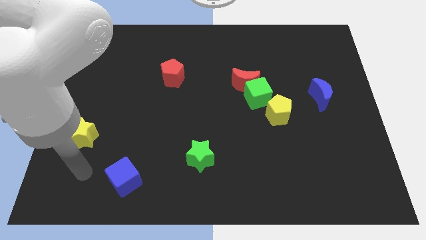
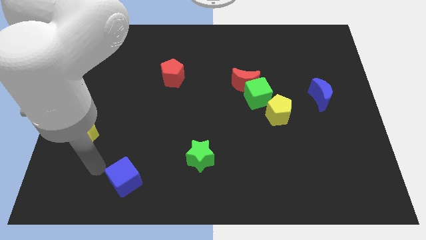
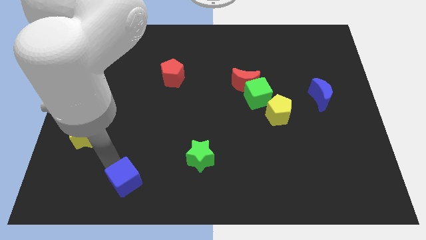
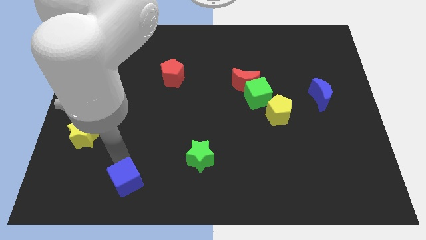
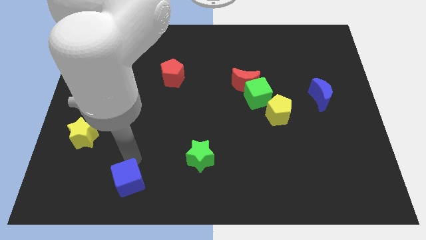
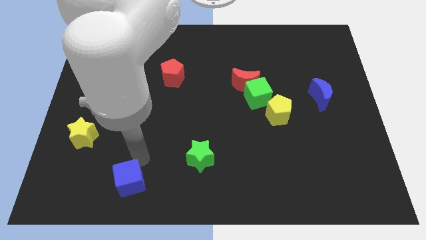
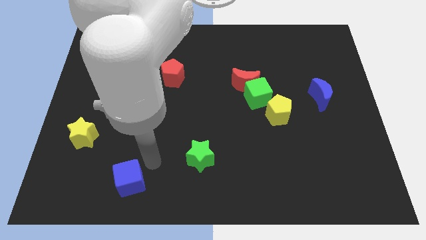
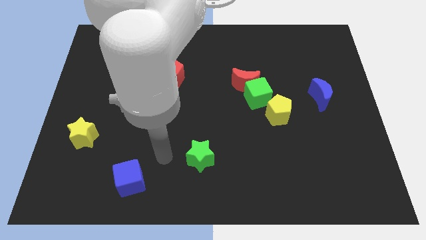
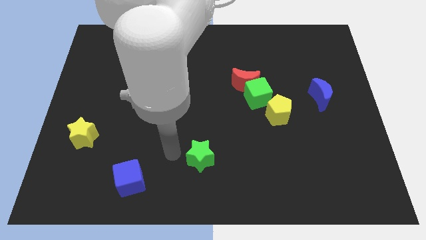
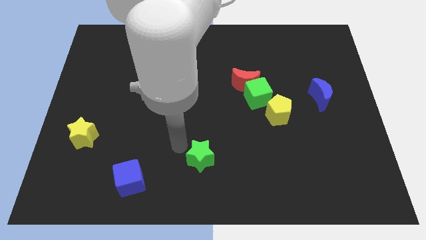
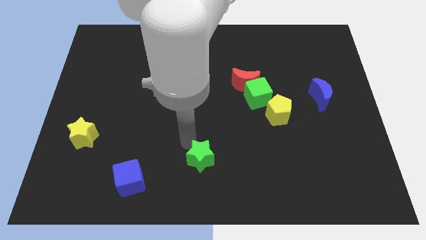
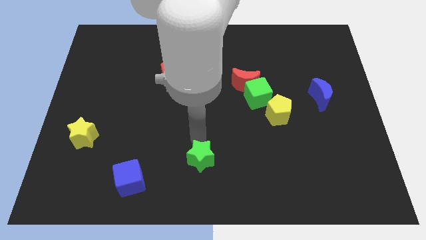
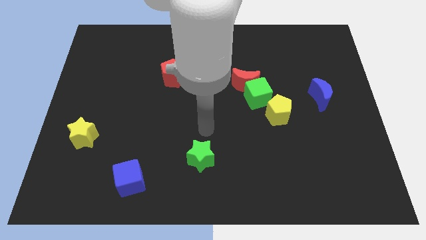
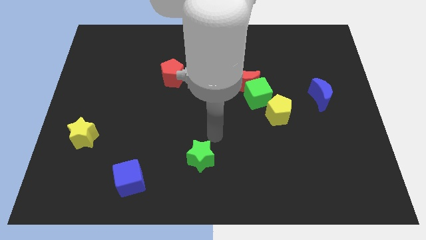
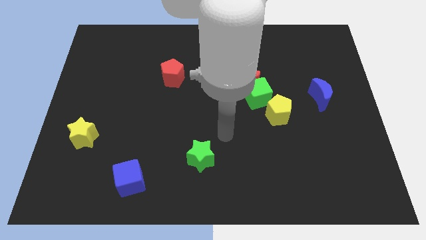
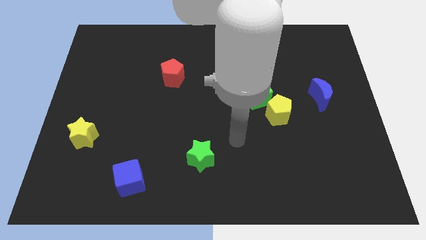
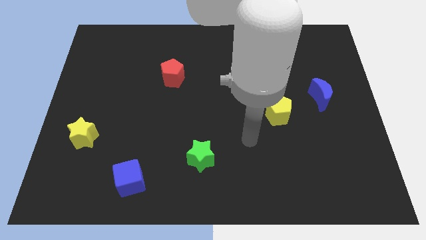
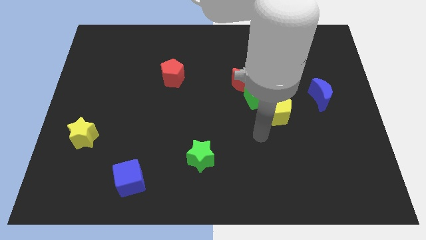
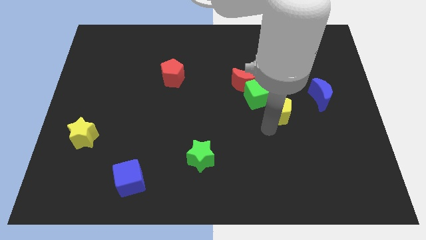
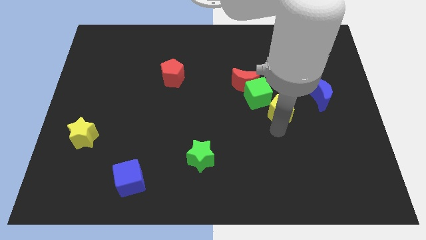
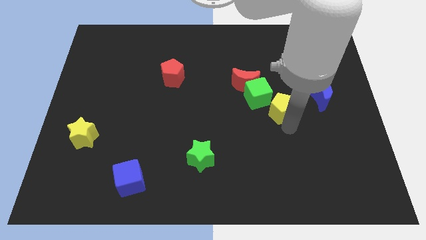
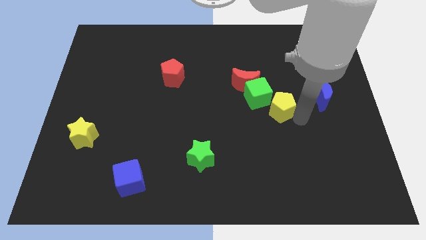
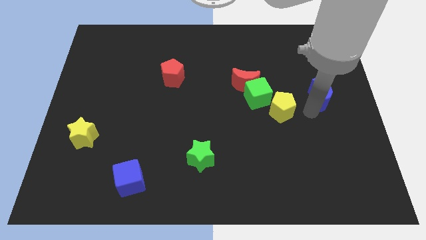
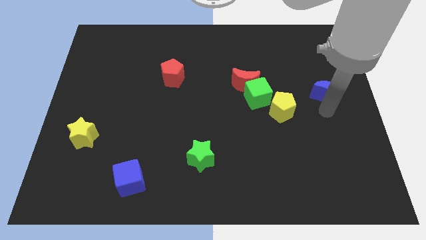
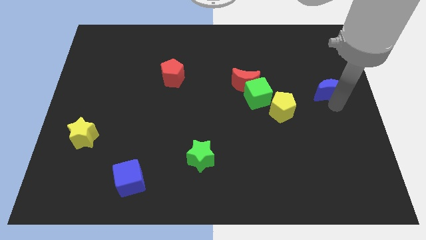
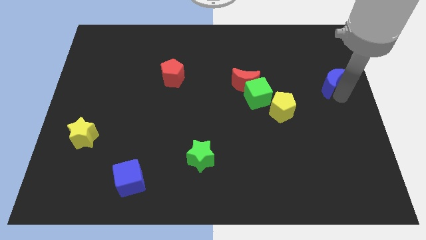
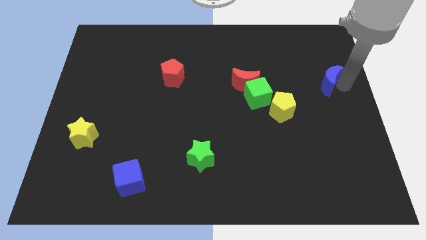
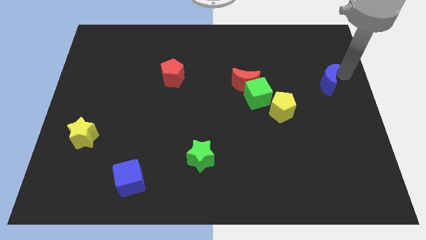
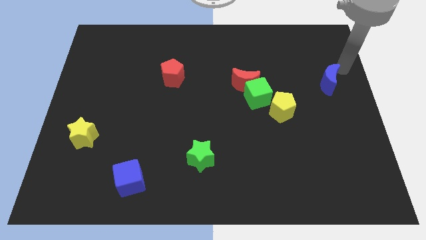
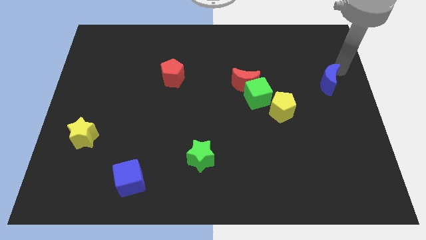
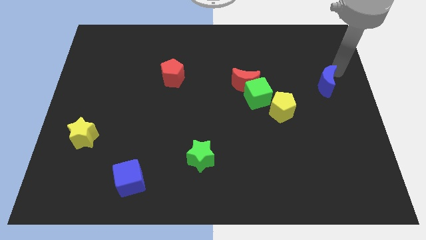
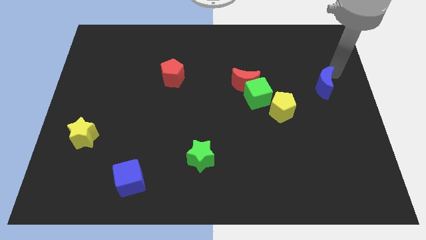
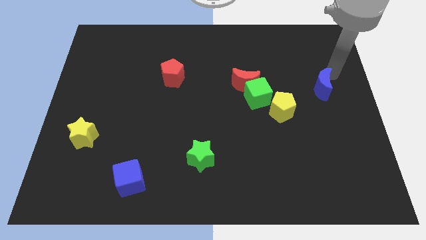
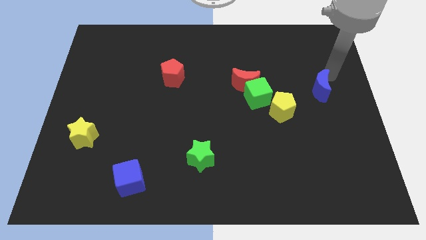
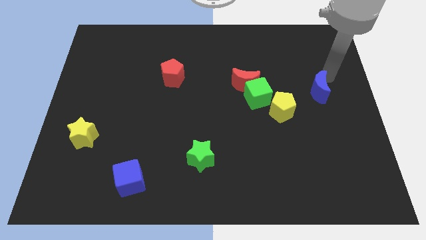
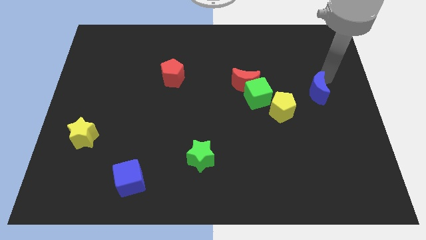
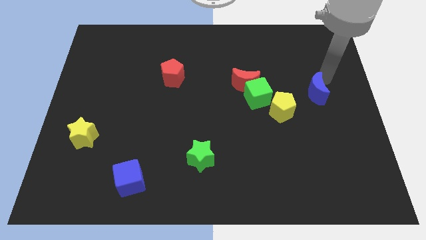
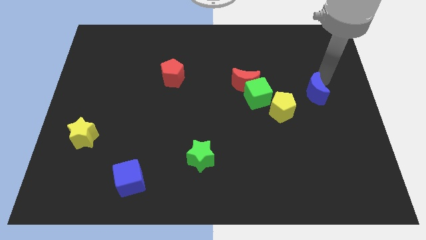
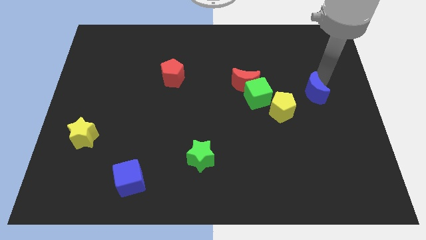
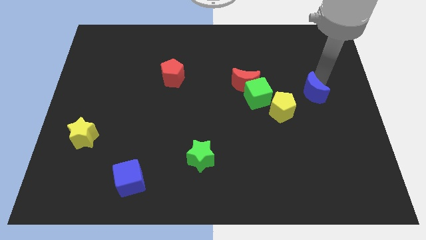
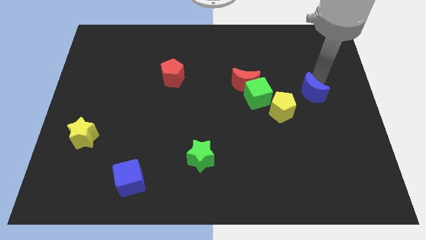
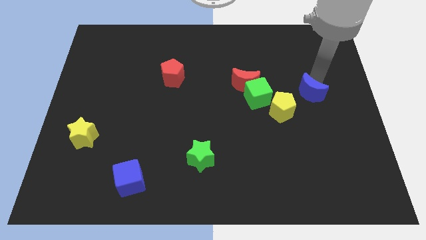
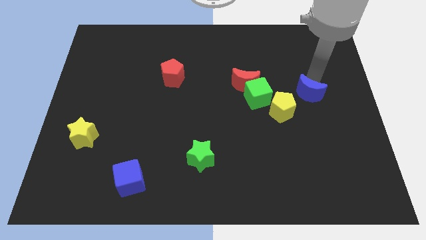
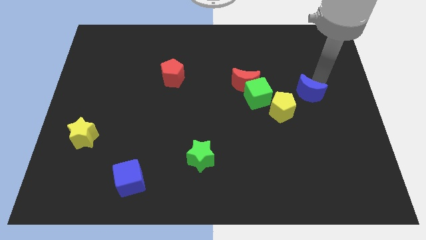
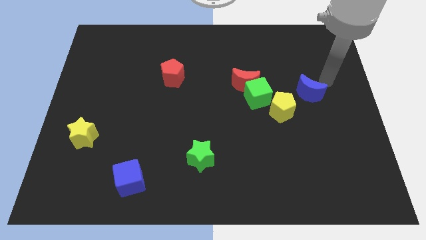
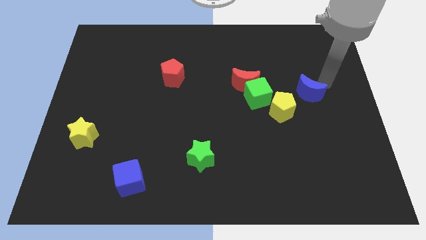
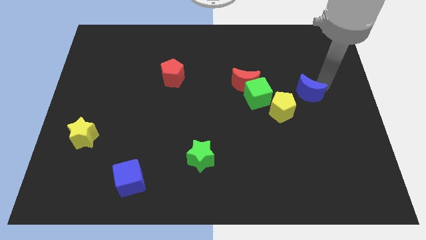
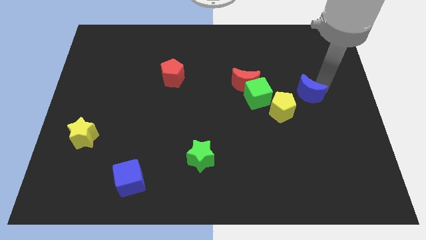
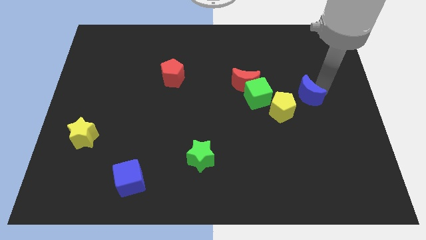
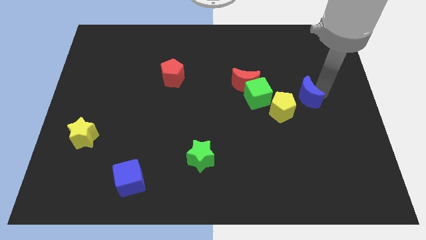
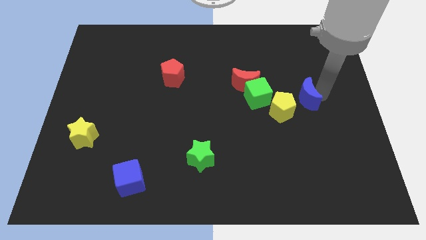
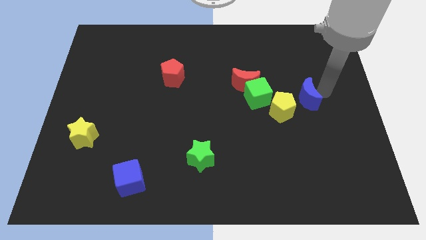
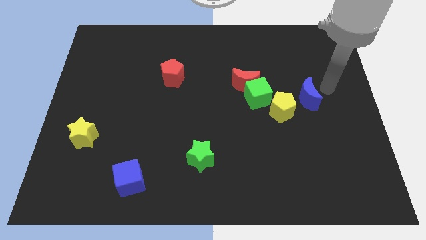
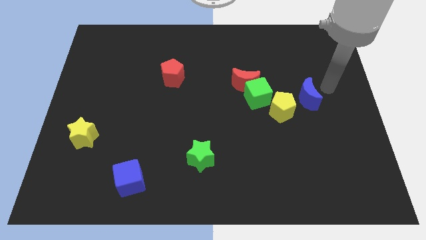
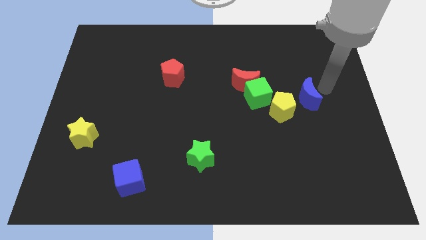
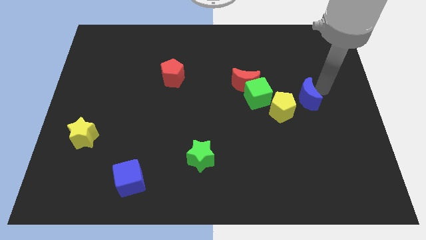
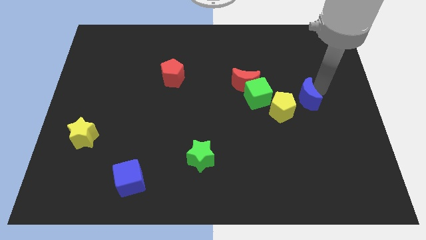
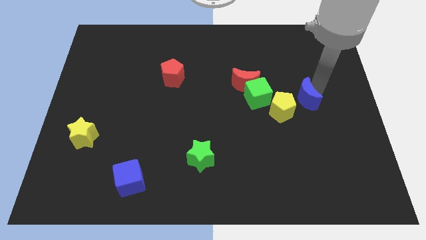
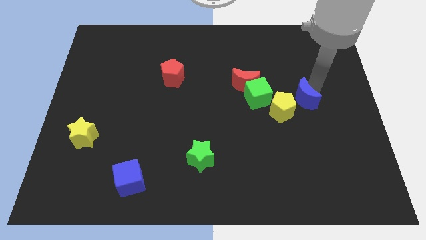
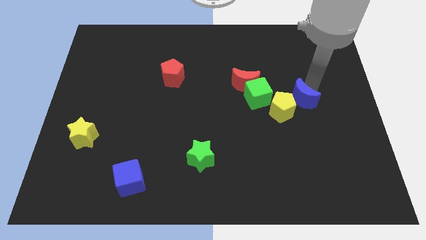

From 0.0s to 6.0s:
slide the blue moon to the yellow pentagon

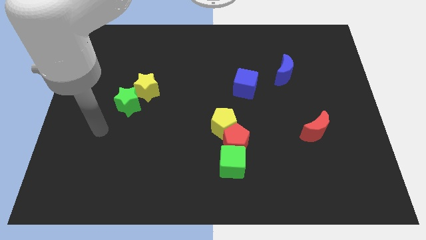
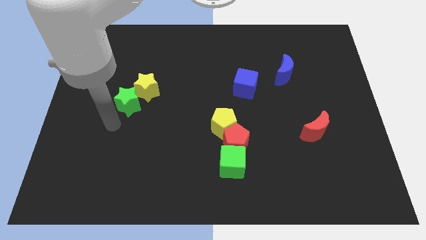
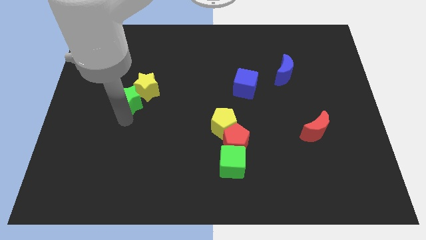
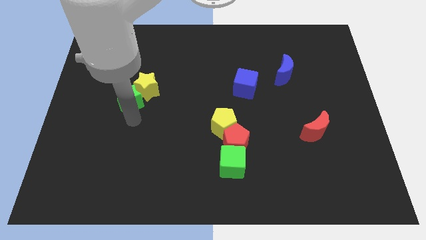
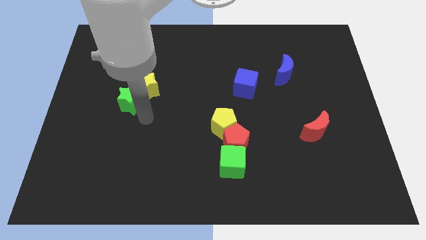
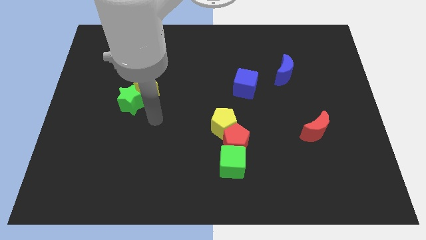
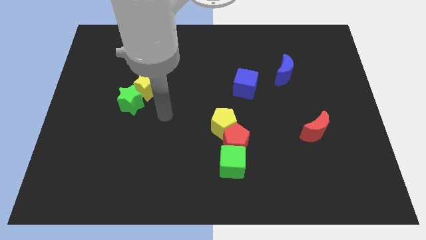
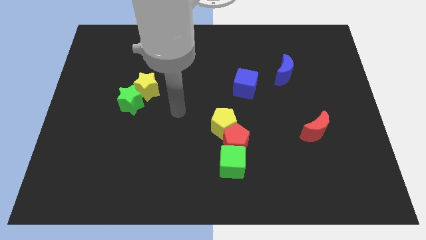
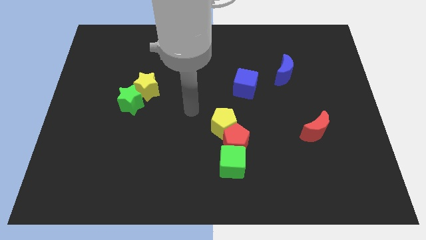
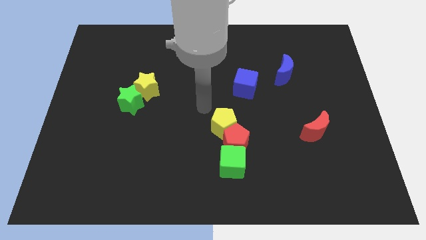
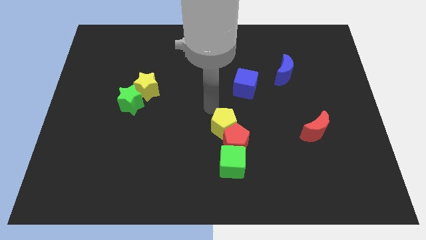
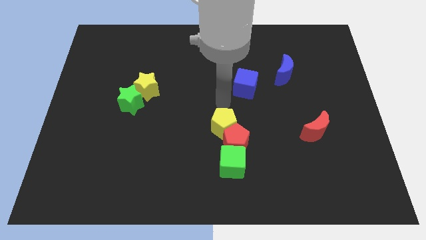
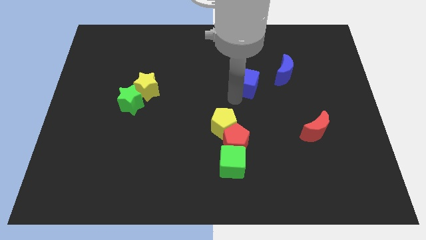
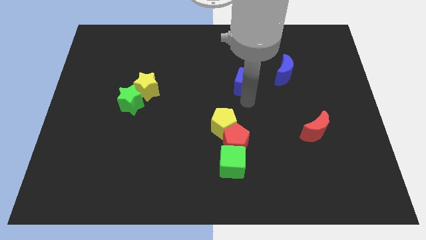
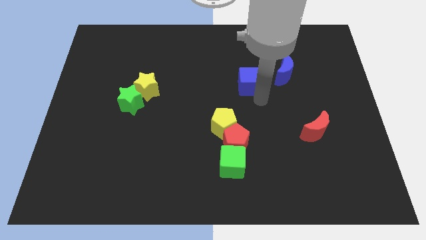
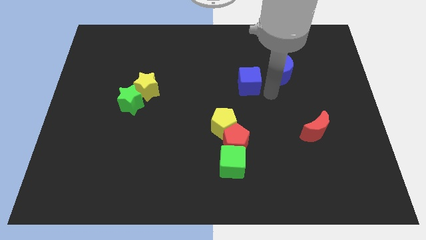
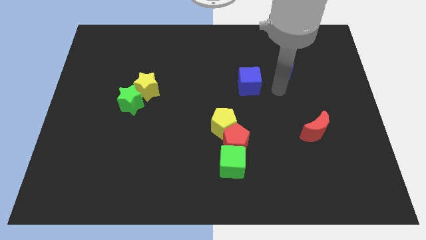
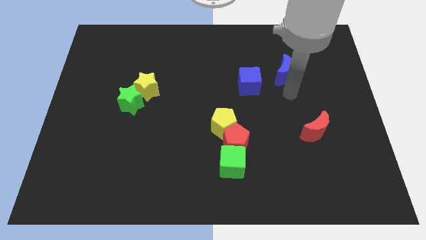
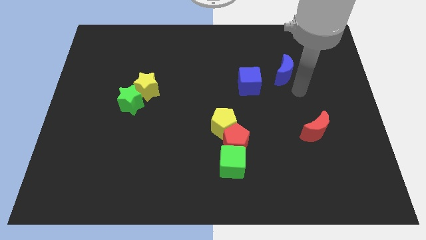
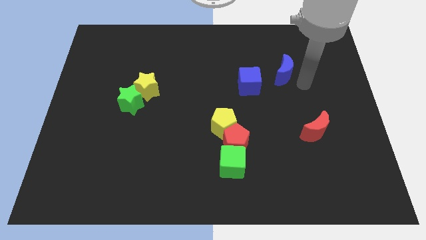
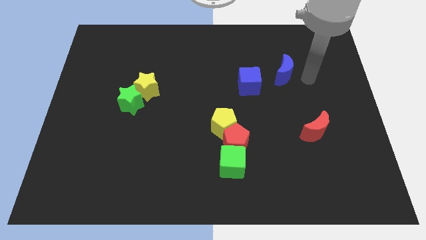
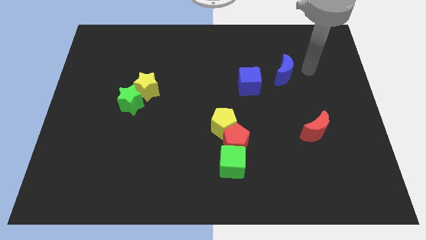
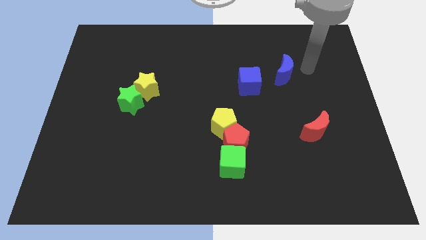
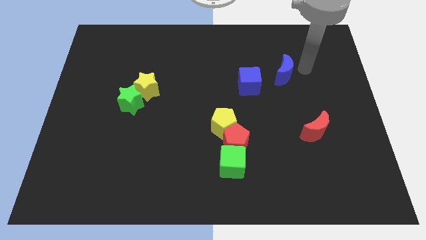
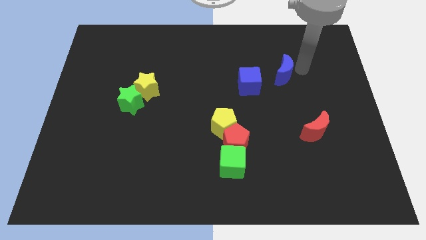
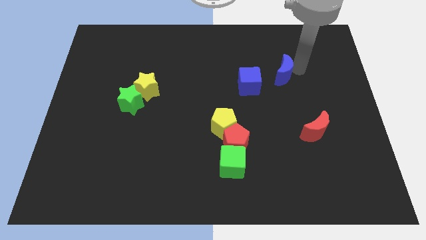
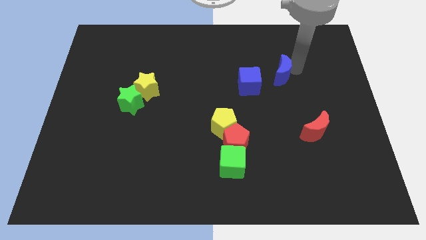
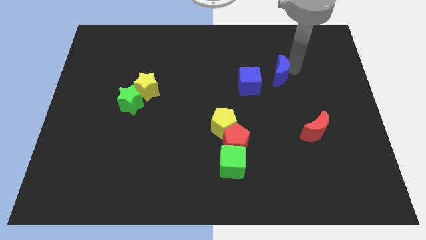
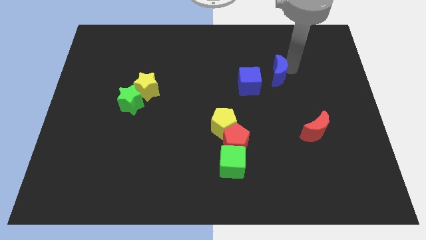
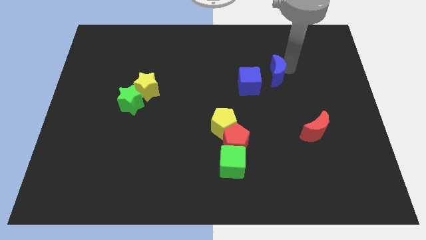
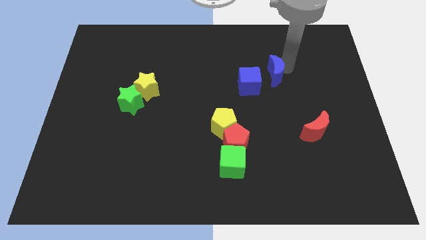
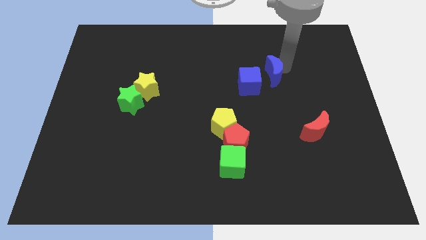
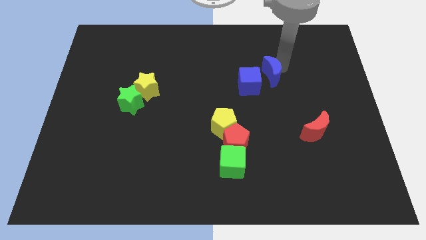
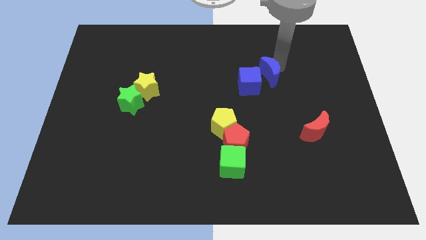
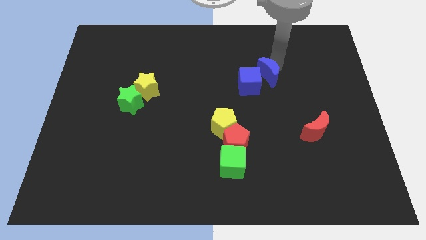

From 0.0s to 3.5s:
slide the blue moon towards the blue cube
